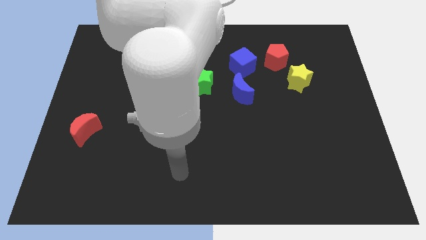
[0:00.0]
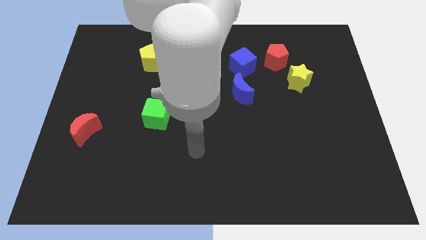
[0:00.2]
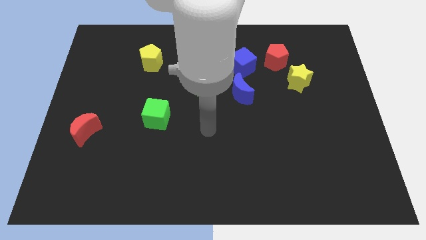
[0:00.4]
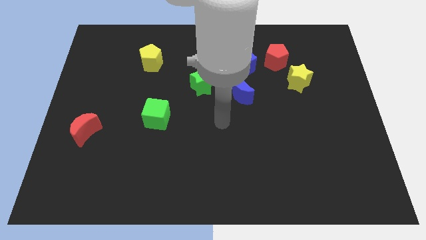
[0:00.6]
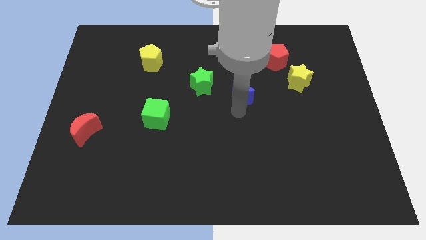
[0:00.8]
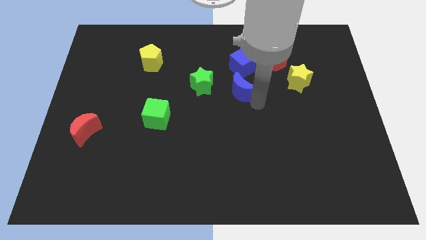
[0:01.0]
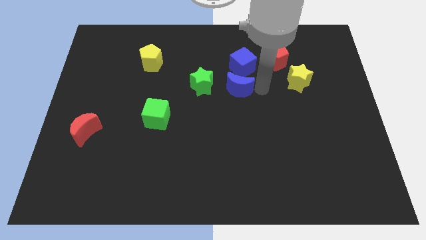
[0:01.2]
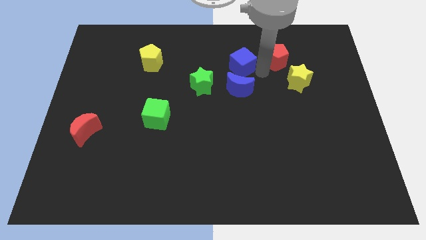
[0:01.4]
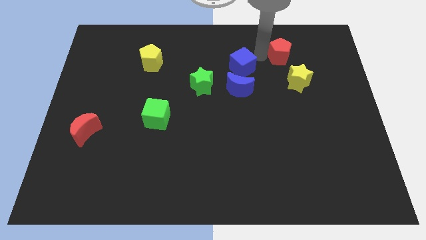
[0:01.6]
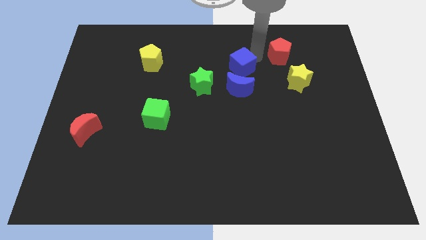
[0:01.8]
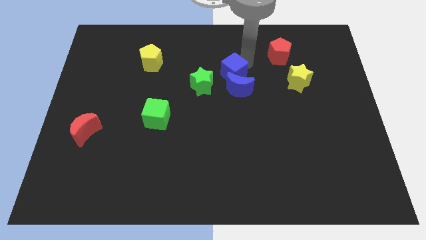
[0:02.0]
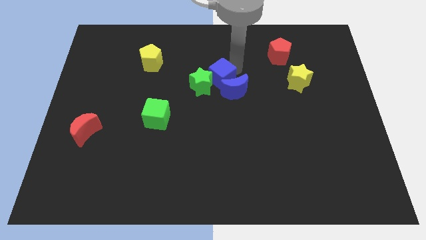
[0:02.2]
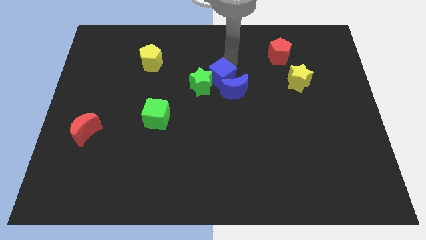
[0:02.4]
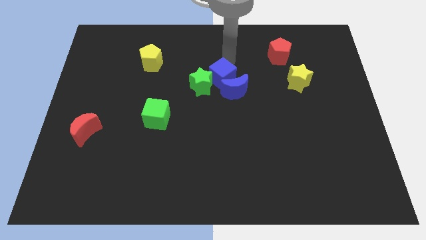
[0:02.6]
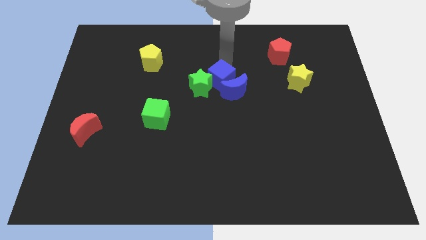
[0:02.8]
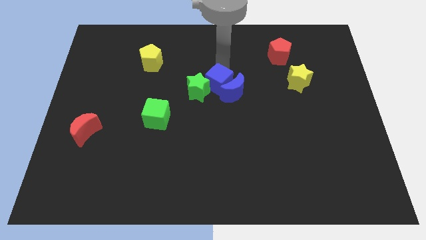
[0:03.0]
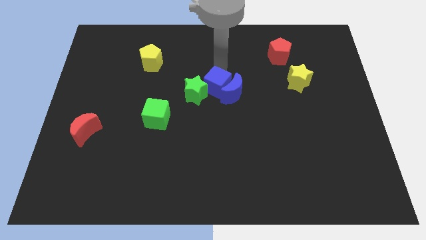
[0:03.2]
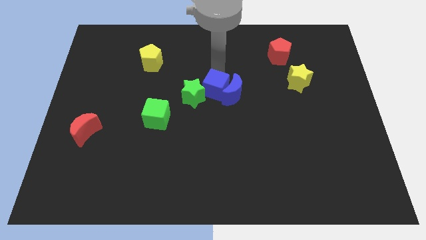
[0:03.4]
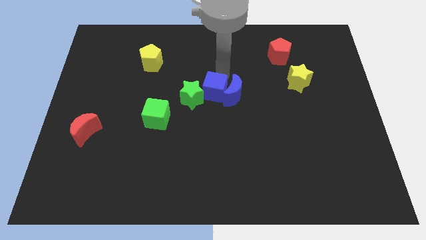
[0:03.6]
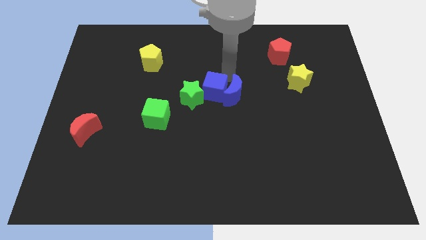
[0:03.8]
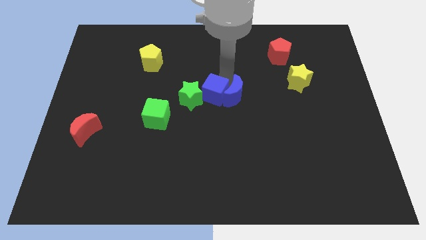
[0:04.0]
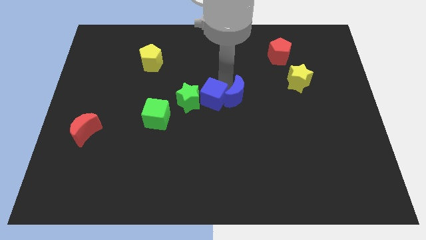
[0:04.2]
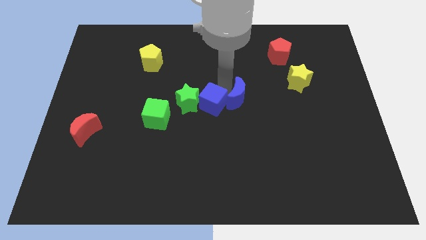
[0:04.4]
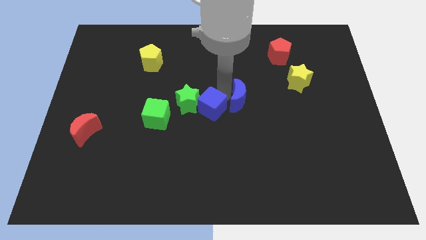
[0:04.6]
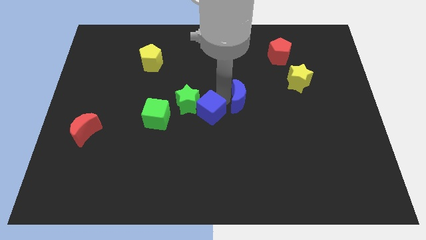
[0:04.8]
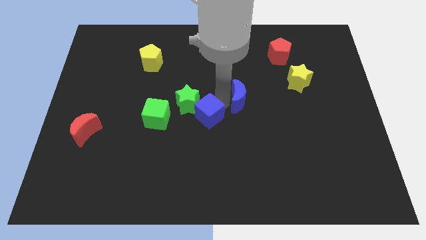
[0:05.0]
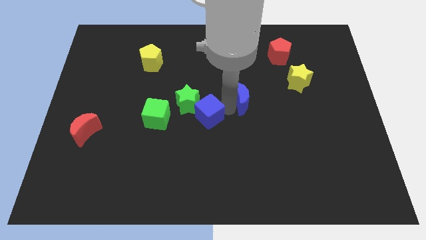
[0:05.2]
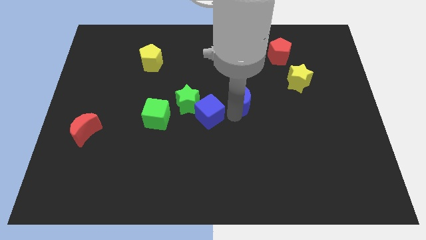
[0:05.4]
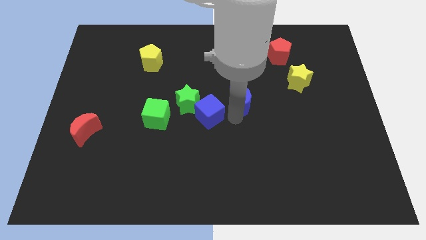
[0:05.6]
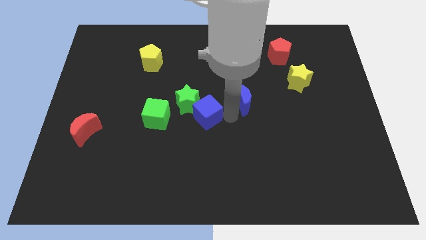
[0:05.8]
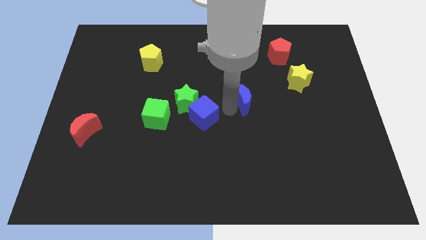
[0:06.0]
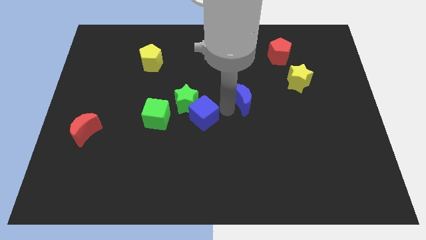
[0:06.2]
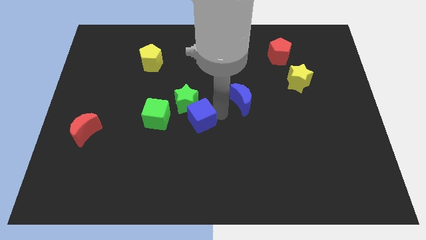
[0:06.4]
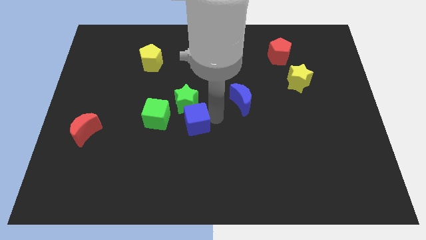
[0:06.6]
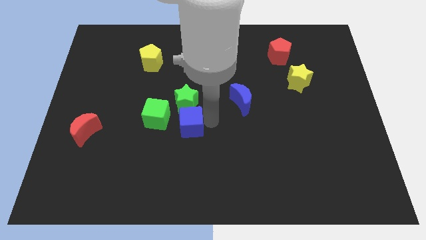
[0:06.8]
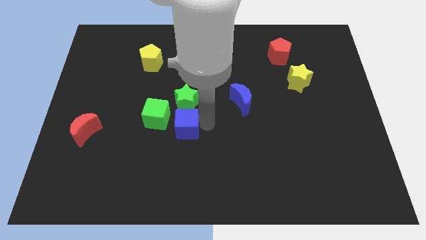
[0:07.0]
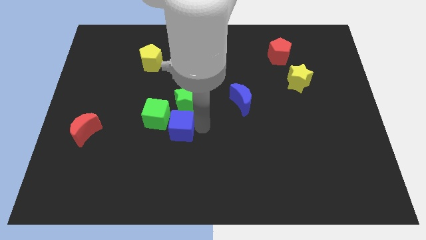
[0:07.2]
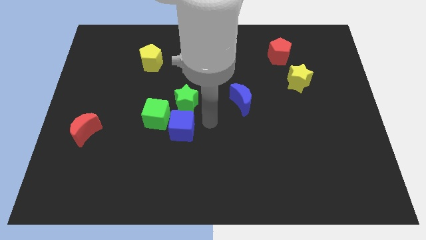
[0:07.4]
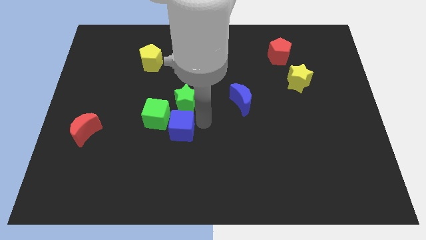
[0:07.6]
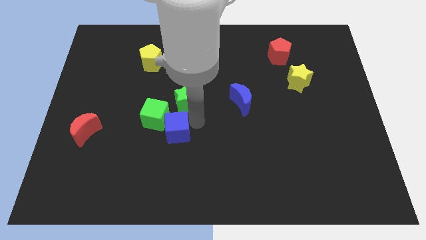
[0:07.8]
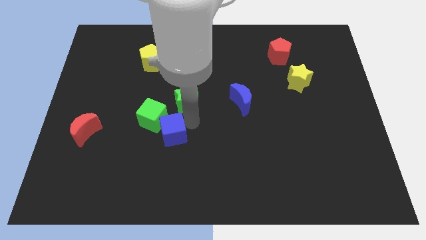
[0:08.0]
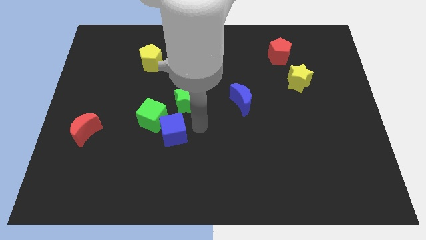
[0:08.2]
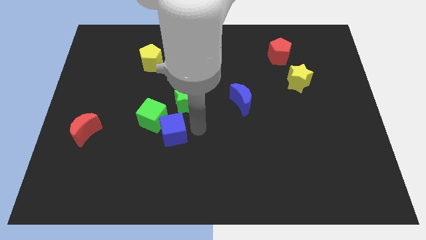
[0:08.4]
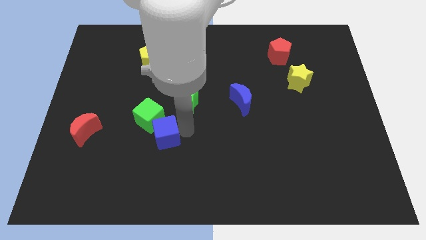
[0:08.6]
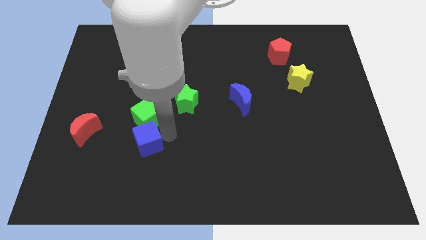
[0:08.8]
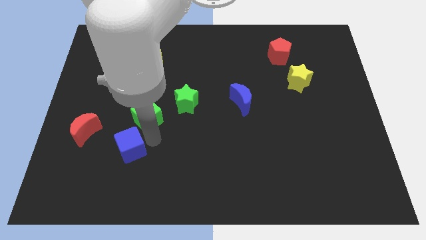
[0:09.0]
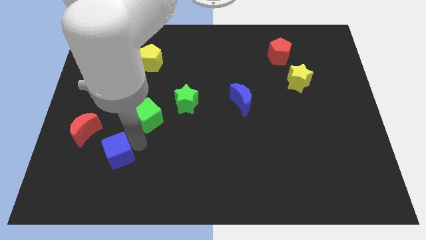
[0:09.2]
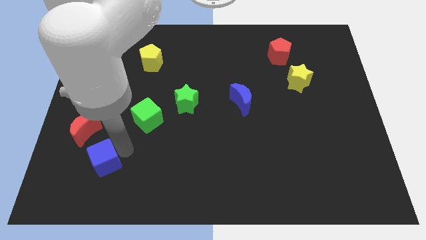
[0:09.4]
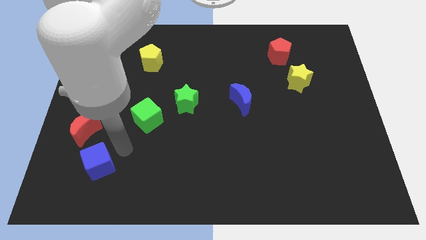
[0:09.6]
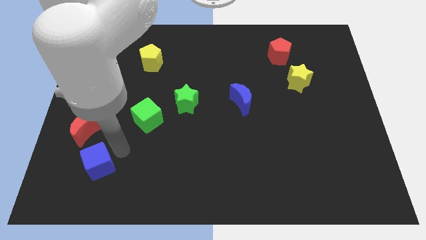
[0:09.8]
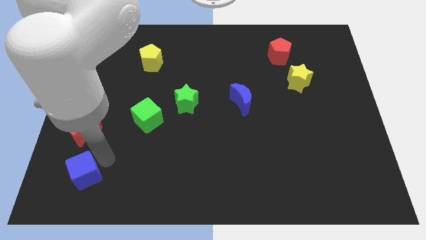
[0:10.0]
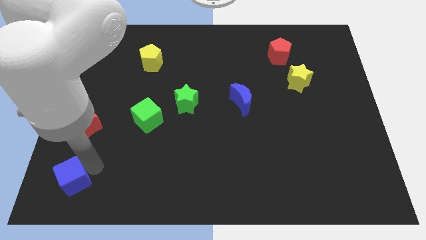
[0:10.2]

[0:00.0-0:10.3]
move the blue cube to the bottom left

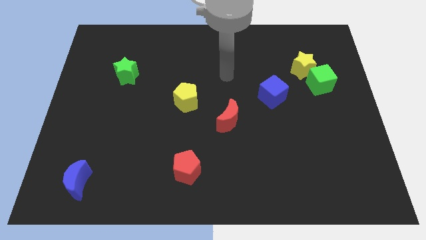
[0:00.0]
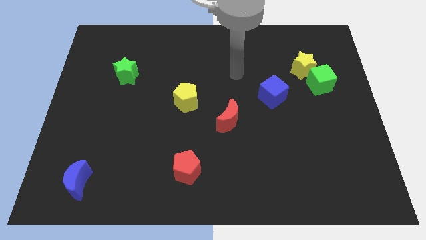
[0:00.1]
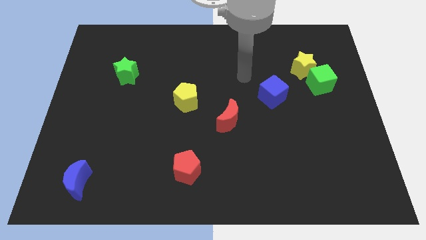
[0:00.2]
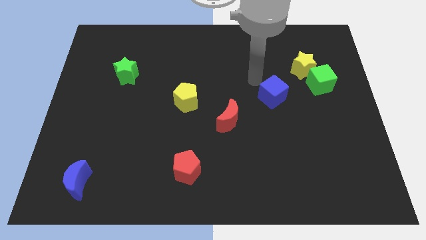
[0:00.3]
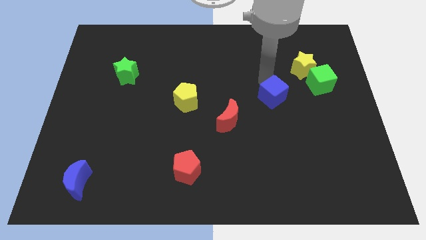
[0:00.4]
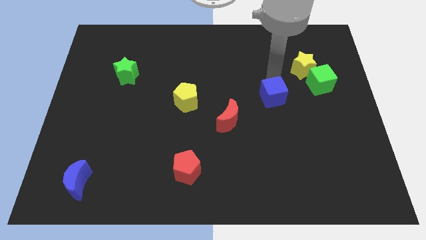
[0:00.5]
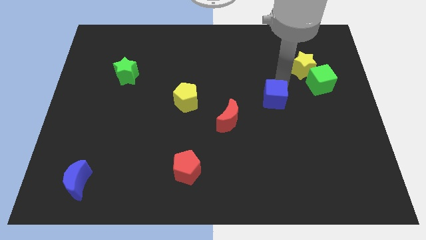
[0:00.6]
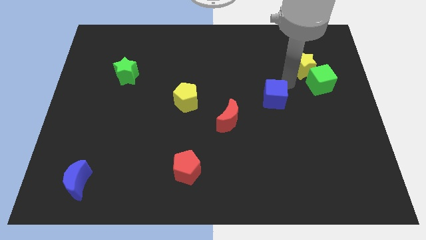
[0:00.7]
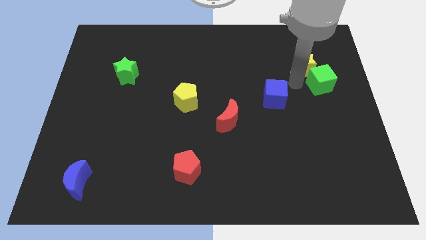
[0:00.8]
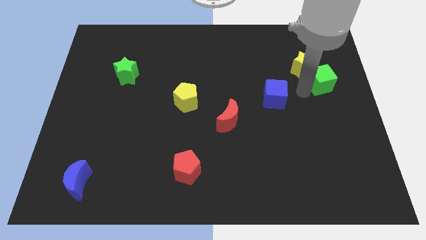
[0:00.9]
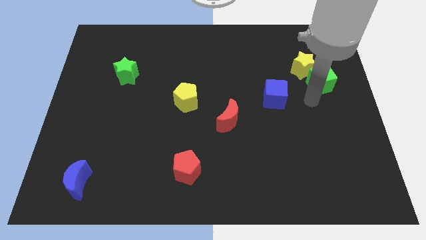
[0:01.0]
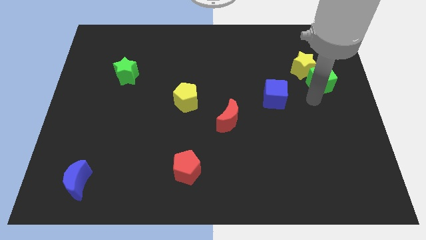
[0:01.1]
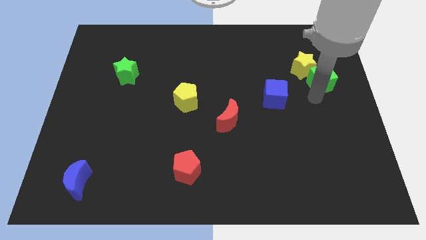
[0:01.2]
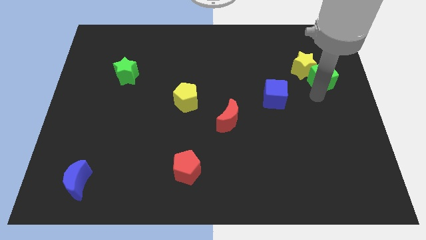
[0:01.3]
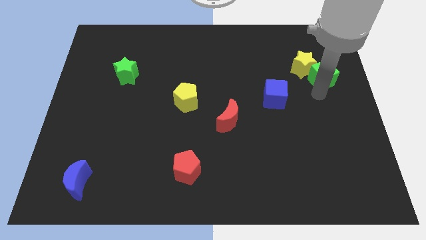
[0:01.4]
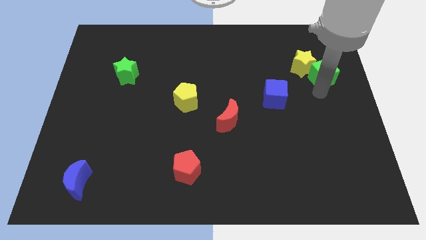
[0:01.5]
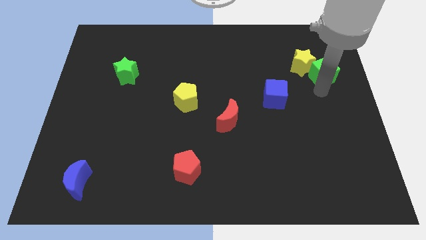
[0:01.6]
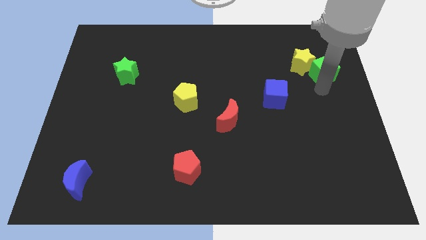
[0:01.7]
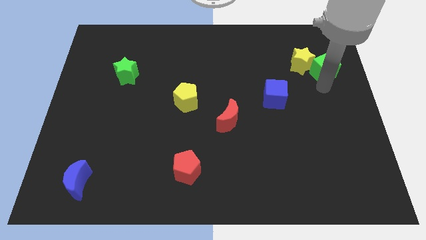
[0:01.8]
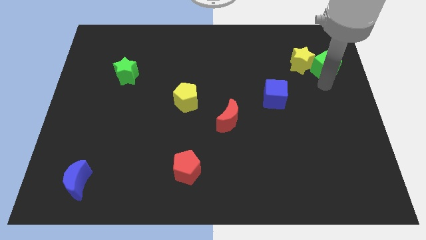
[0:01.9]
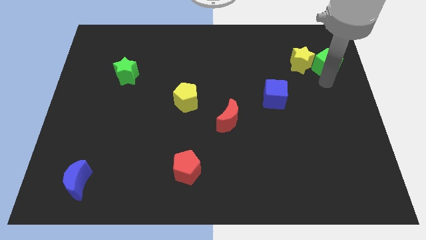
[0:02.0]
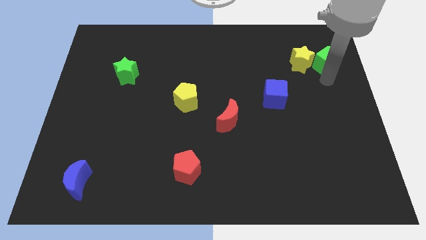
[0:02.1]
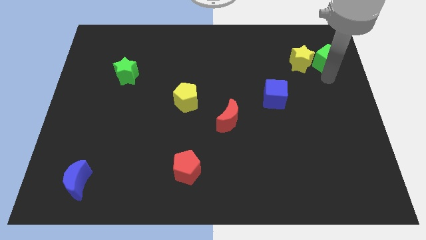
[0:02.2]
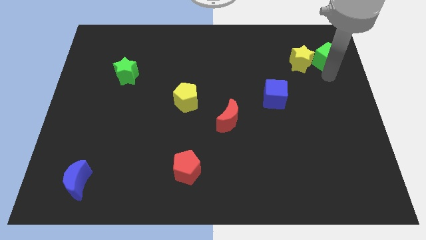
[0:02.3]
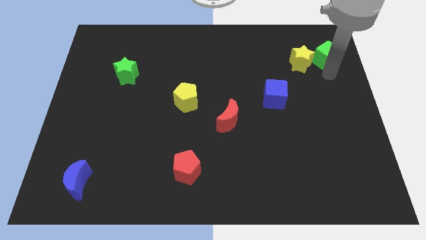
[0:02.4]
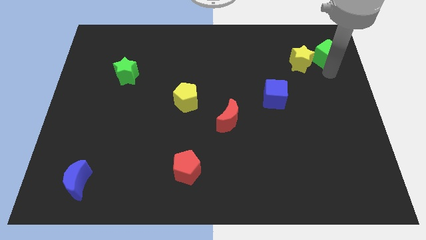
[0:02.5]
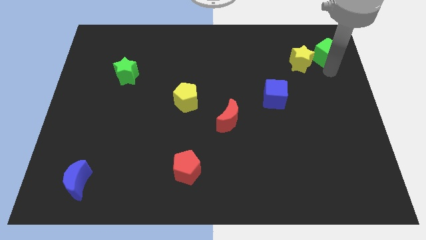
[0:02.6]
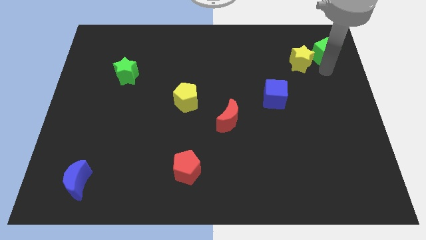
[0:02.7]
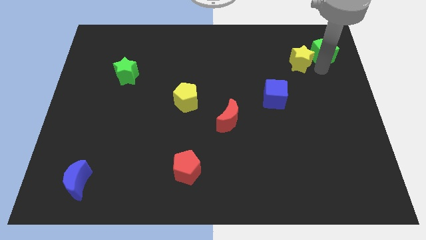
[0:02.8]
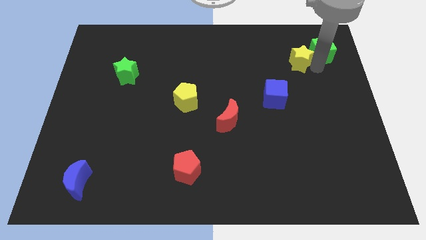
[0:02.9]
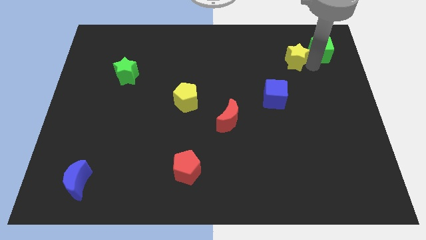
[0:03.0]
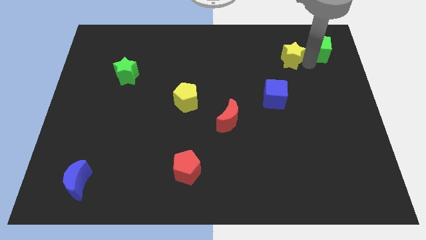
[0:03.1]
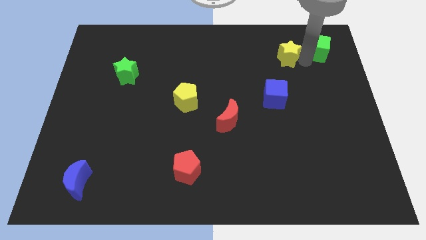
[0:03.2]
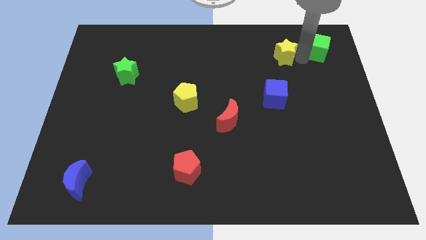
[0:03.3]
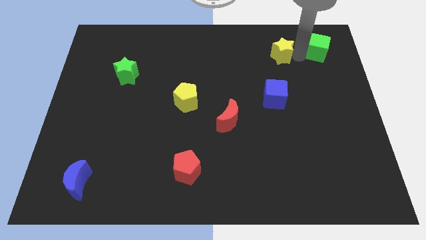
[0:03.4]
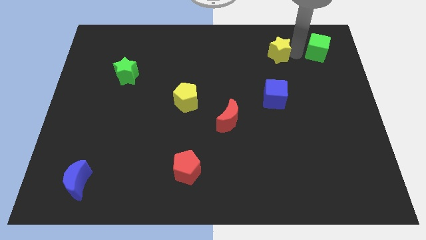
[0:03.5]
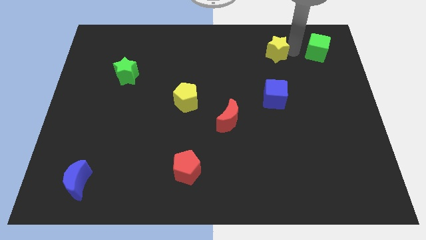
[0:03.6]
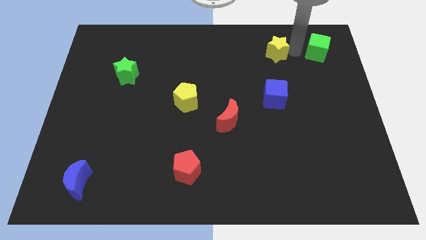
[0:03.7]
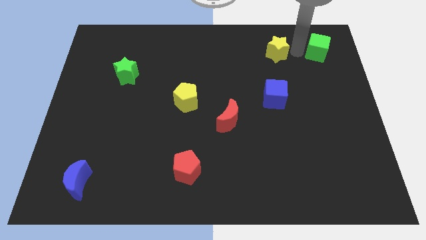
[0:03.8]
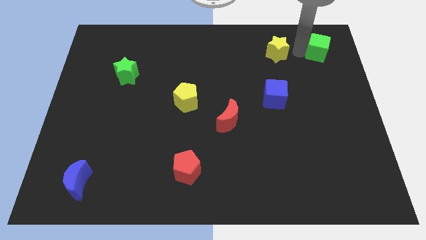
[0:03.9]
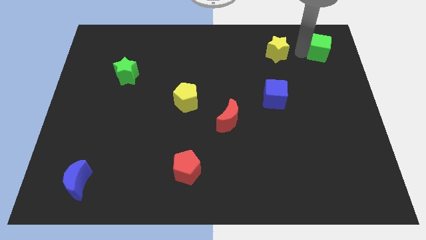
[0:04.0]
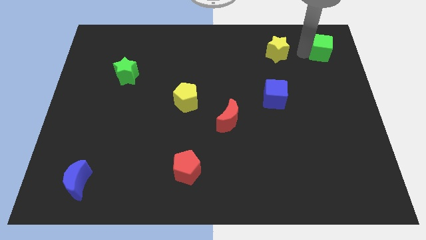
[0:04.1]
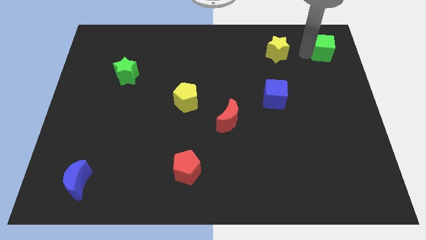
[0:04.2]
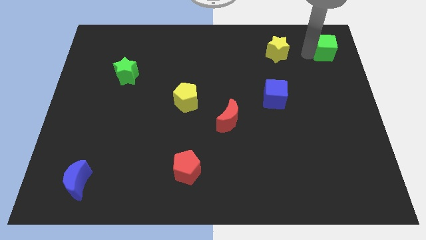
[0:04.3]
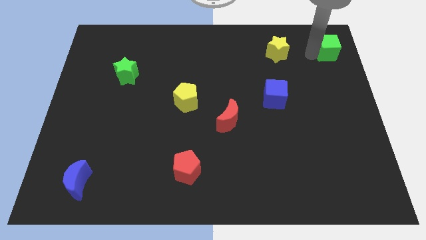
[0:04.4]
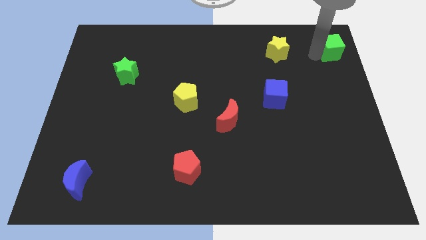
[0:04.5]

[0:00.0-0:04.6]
slide the green cube to the upper right corner
